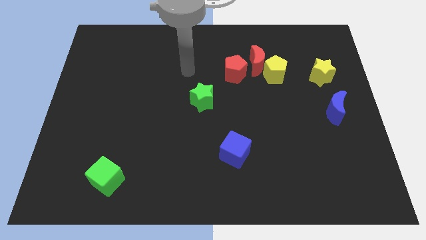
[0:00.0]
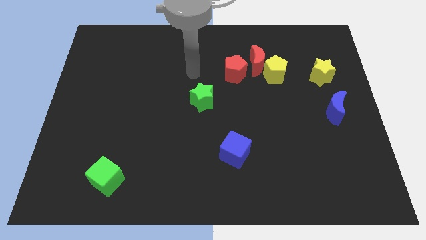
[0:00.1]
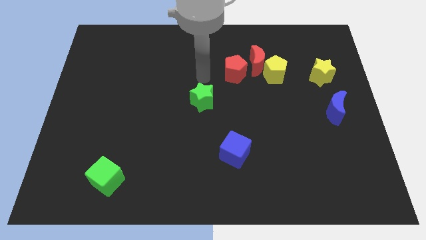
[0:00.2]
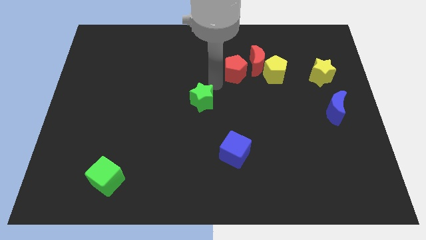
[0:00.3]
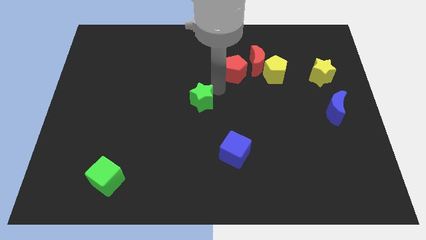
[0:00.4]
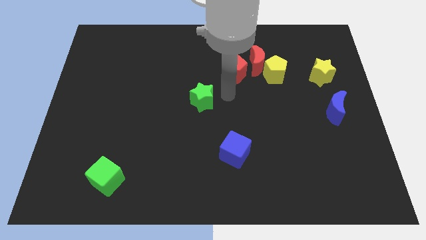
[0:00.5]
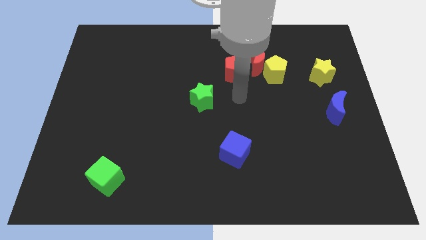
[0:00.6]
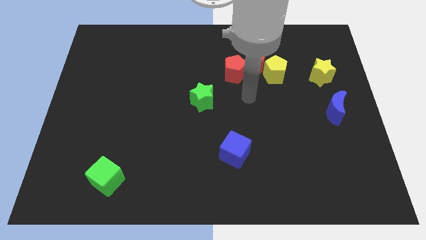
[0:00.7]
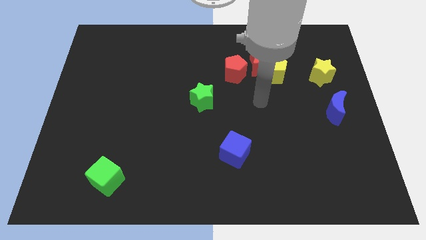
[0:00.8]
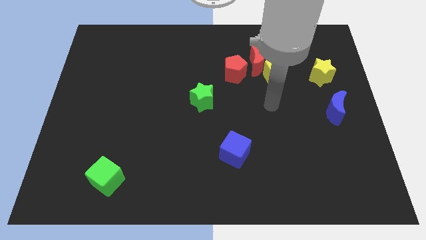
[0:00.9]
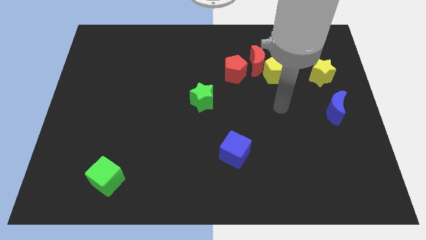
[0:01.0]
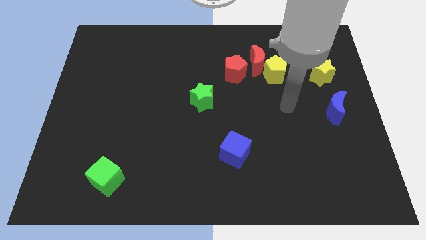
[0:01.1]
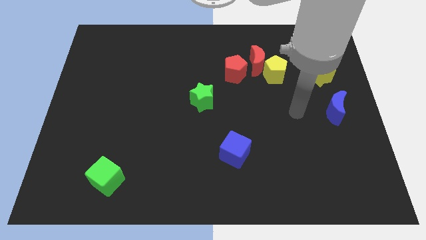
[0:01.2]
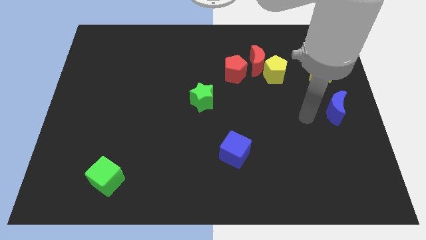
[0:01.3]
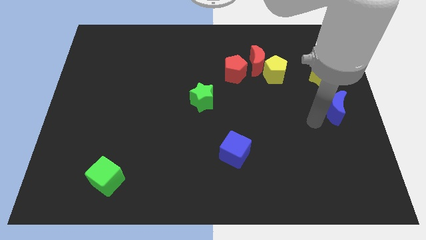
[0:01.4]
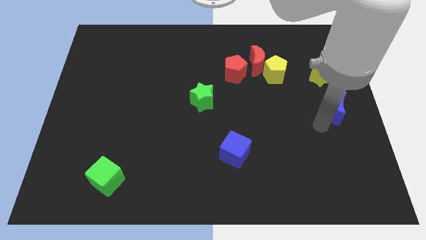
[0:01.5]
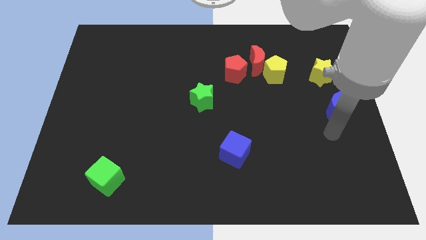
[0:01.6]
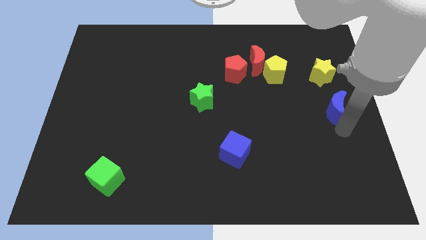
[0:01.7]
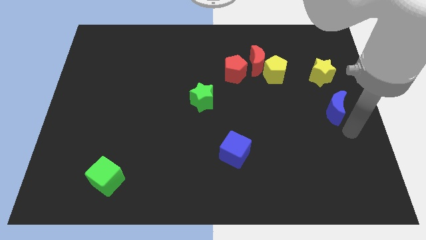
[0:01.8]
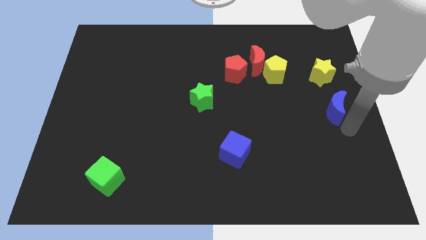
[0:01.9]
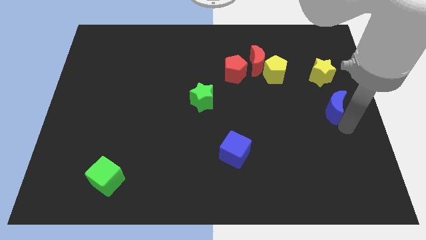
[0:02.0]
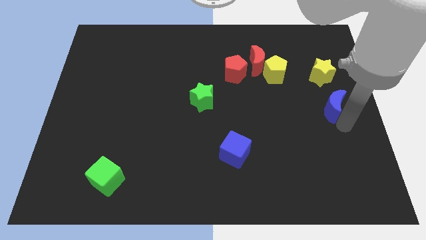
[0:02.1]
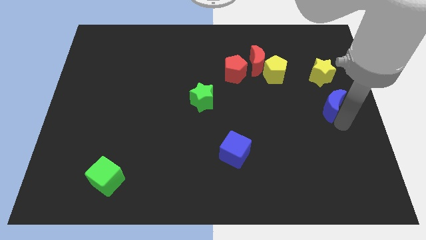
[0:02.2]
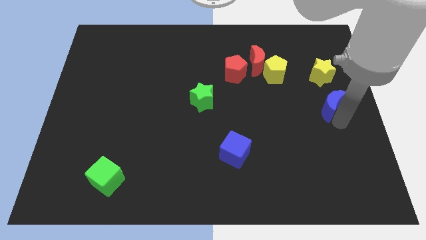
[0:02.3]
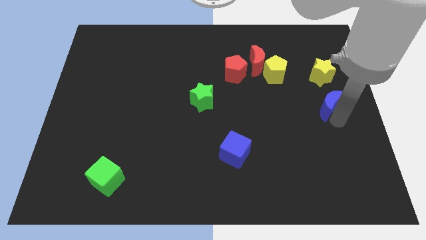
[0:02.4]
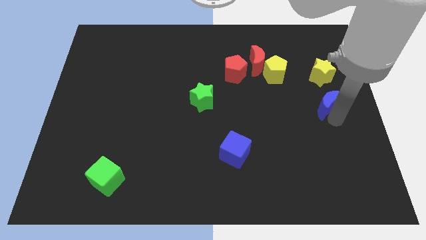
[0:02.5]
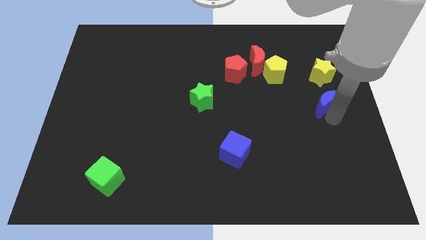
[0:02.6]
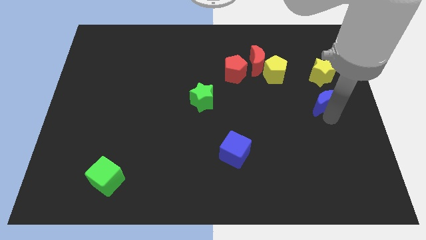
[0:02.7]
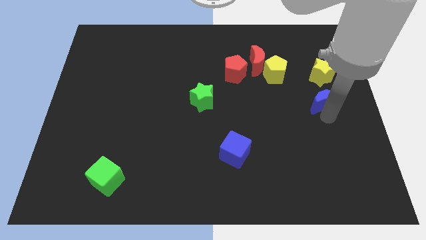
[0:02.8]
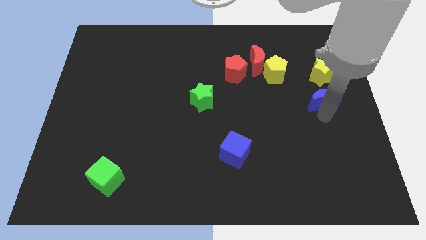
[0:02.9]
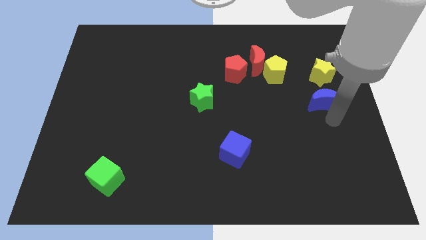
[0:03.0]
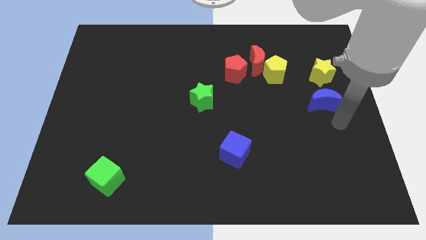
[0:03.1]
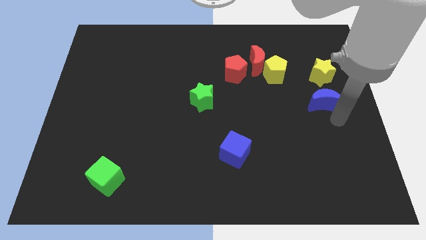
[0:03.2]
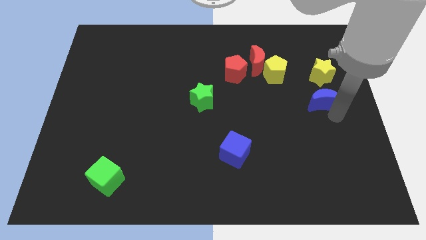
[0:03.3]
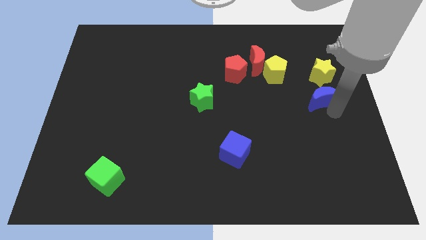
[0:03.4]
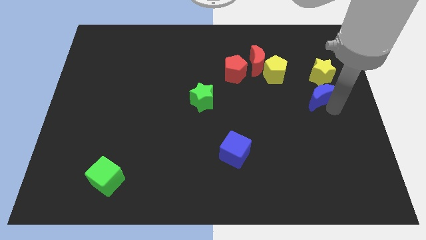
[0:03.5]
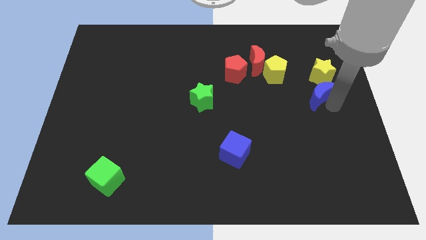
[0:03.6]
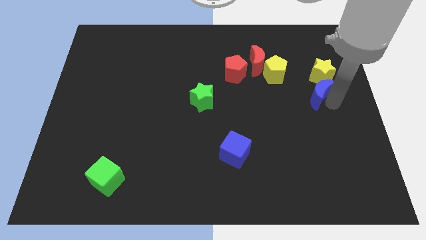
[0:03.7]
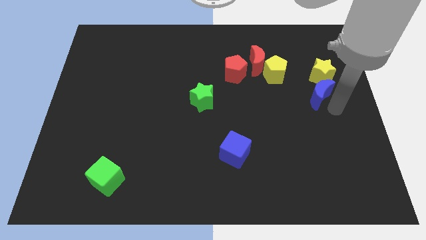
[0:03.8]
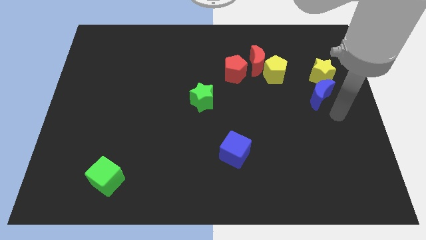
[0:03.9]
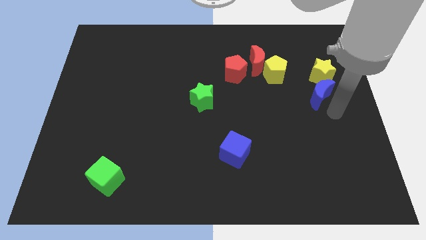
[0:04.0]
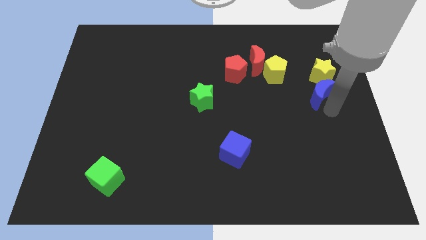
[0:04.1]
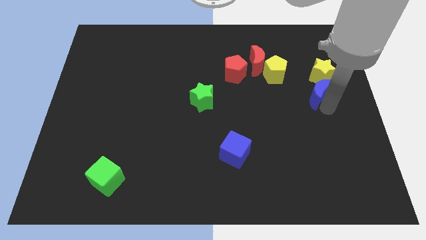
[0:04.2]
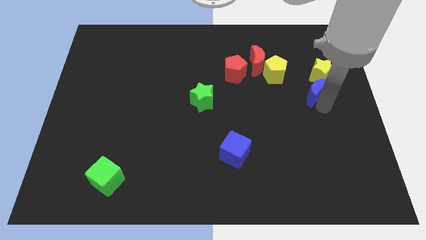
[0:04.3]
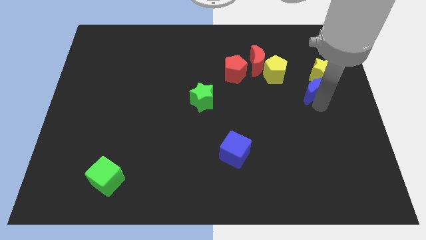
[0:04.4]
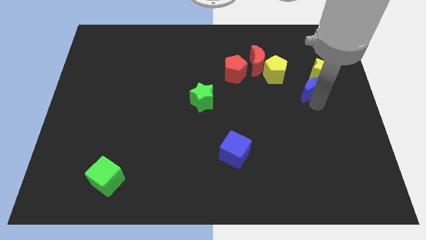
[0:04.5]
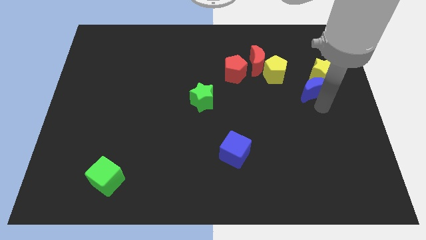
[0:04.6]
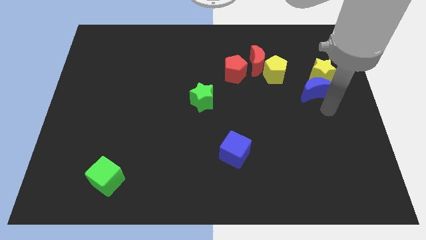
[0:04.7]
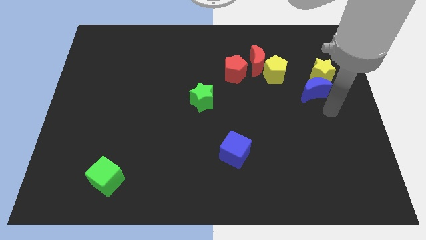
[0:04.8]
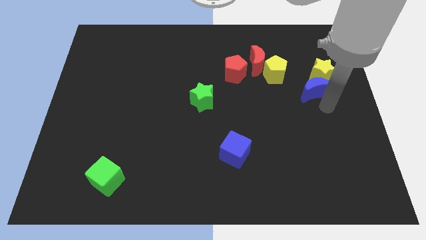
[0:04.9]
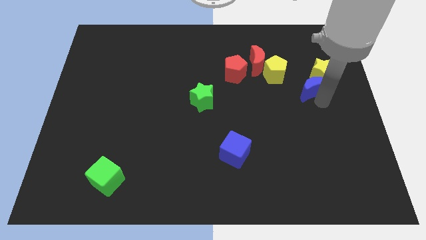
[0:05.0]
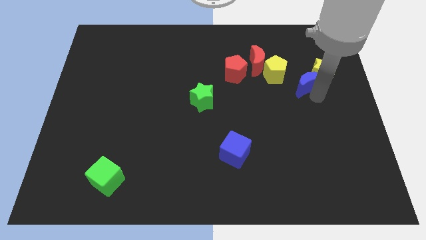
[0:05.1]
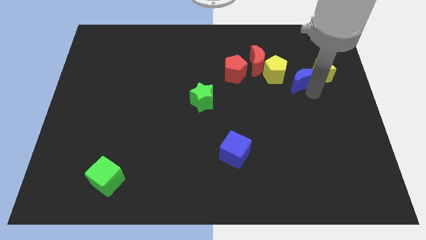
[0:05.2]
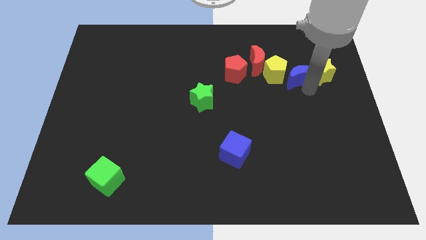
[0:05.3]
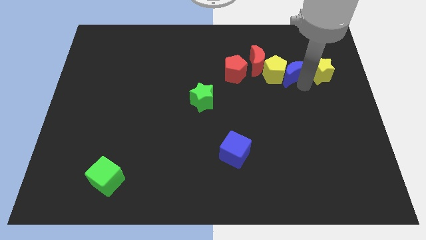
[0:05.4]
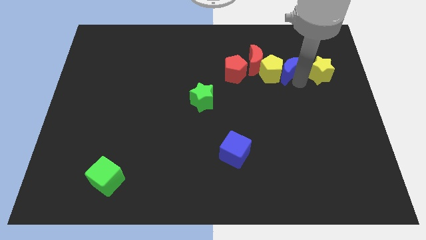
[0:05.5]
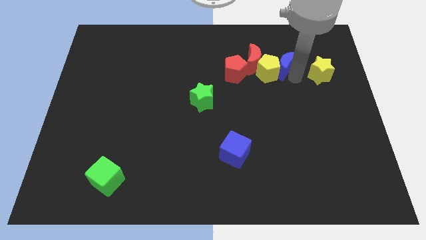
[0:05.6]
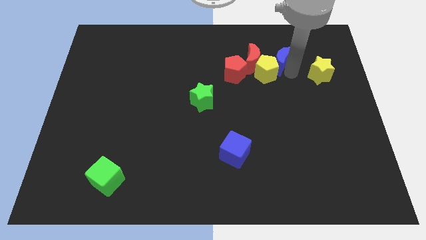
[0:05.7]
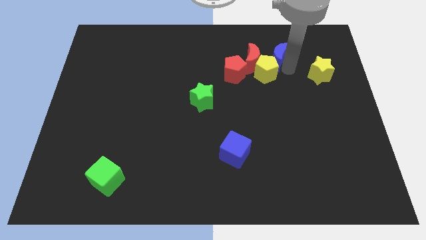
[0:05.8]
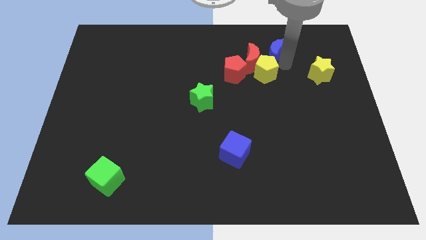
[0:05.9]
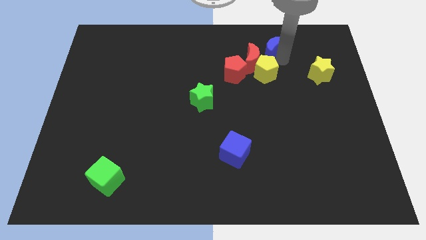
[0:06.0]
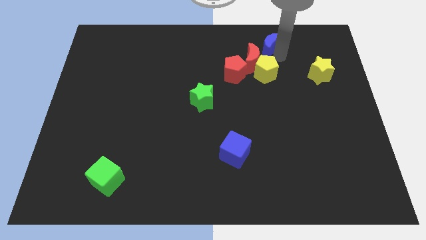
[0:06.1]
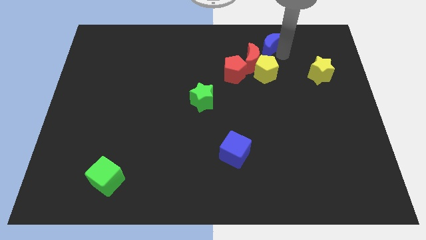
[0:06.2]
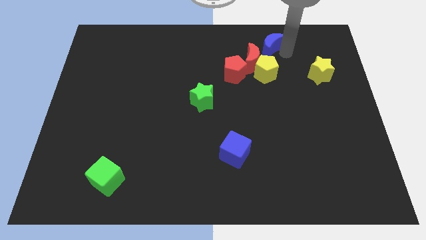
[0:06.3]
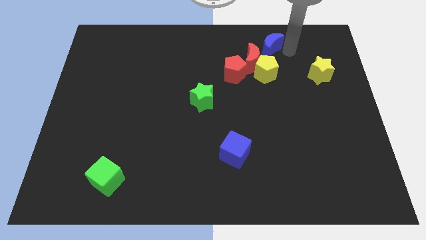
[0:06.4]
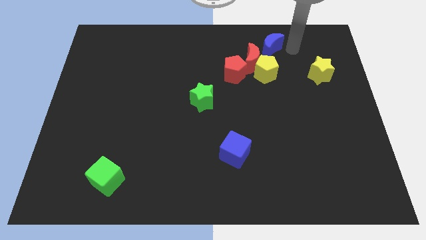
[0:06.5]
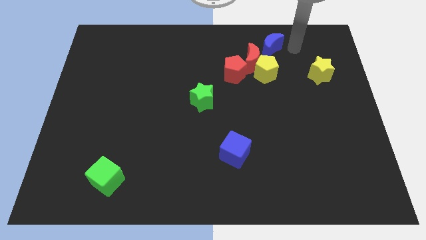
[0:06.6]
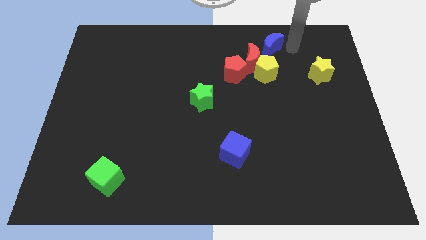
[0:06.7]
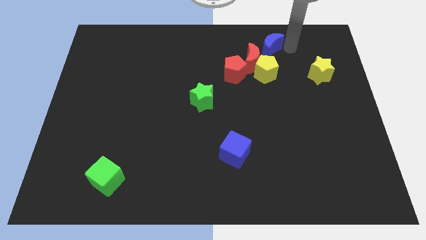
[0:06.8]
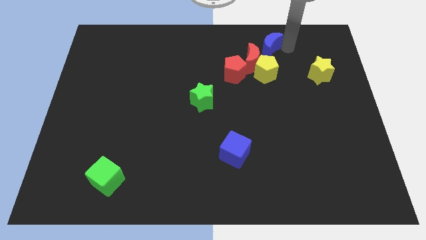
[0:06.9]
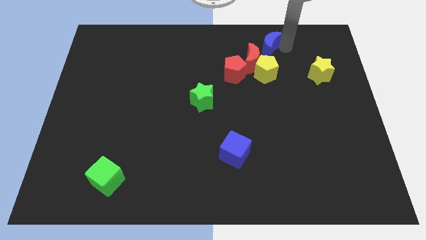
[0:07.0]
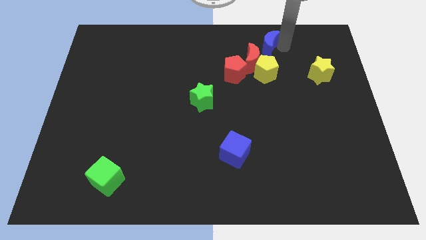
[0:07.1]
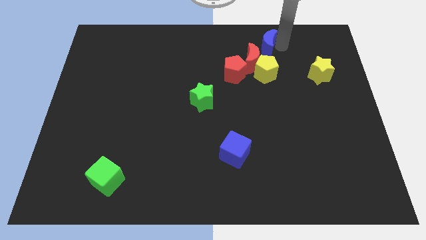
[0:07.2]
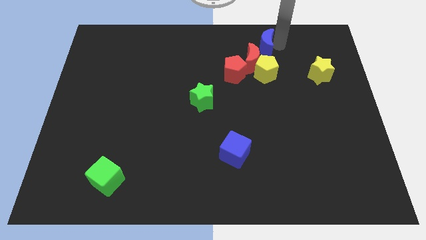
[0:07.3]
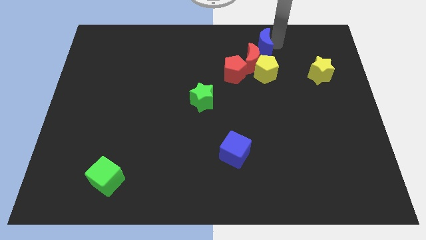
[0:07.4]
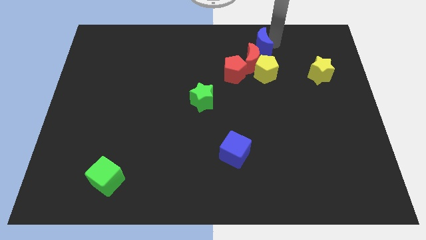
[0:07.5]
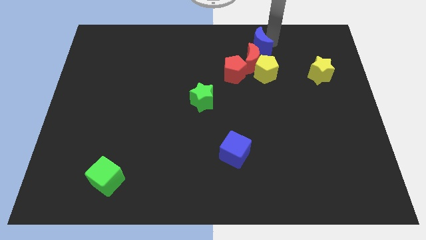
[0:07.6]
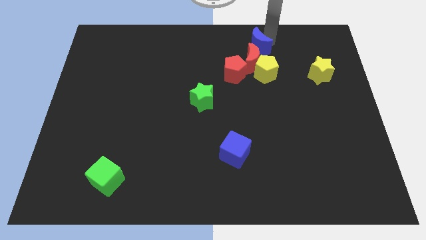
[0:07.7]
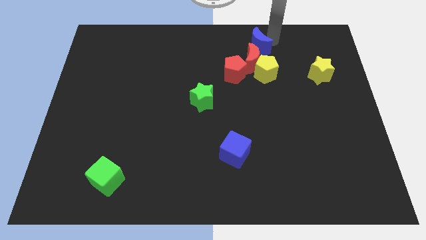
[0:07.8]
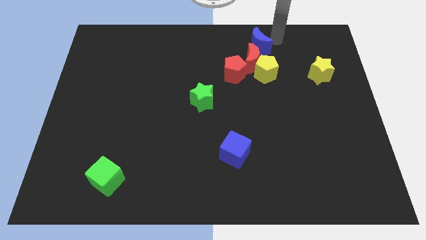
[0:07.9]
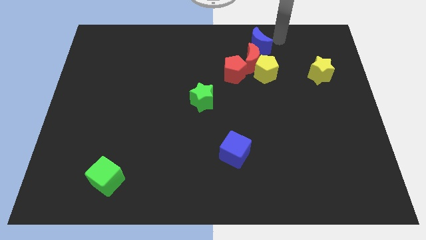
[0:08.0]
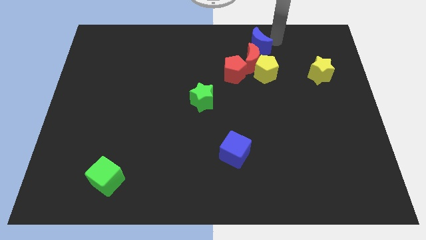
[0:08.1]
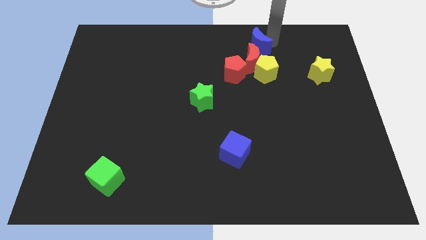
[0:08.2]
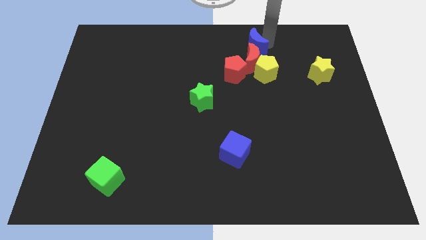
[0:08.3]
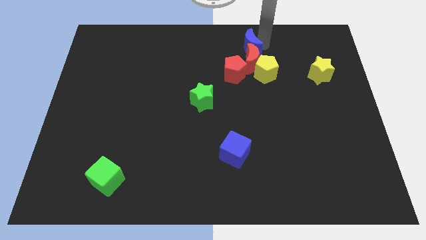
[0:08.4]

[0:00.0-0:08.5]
put the blue moon to the top side
